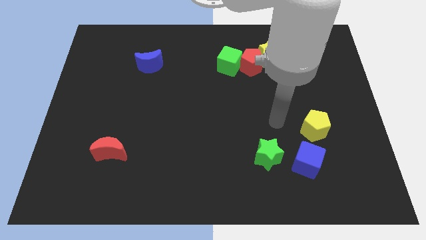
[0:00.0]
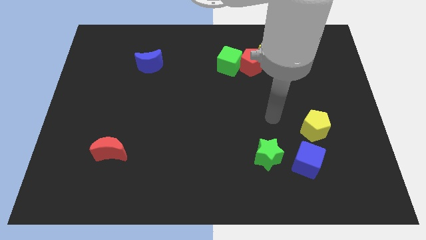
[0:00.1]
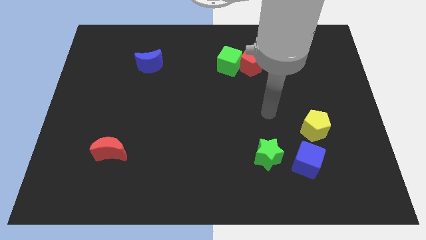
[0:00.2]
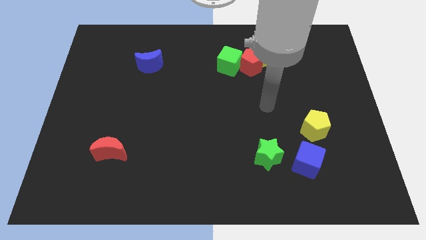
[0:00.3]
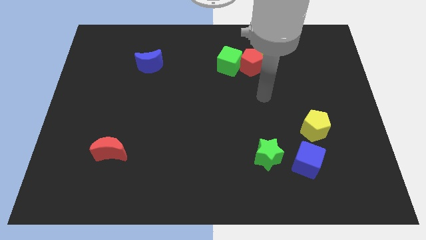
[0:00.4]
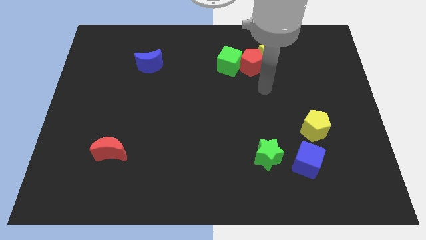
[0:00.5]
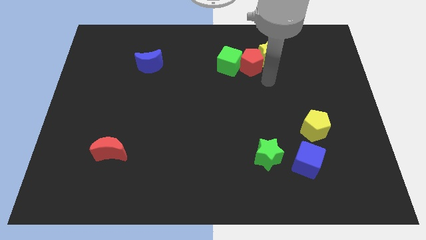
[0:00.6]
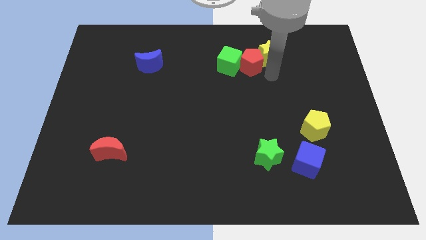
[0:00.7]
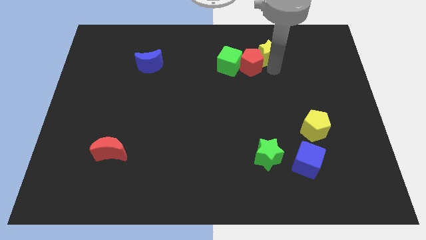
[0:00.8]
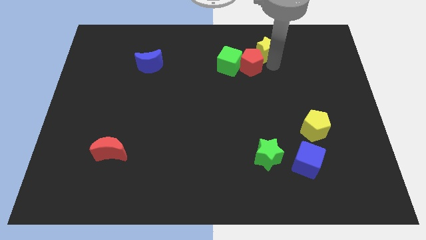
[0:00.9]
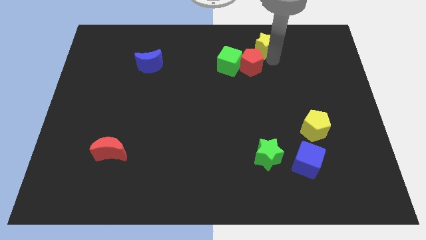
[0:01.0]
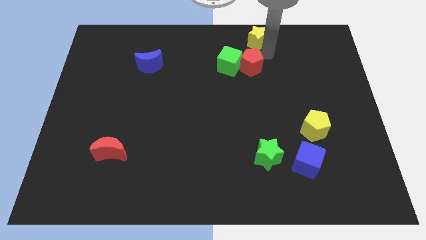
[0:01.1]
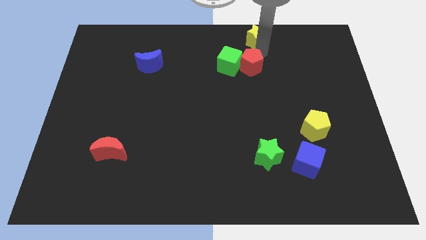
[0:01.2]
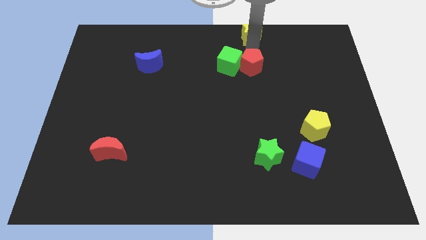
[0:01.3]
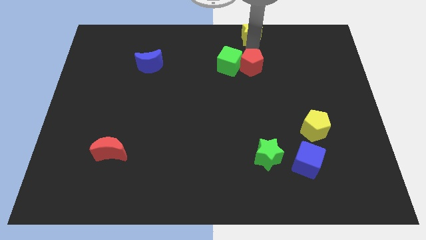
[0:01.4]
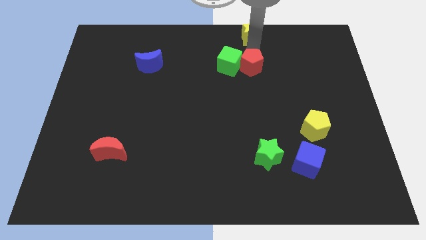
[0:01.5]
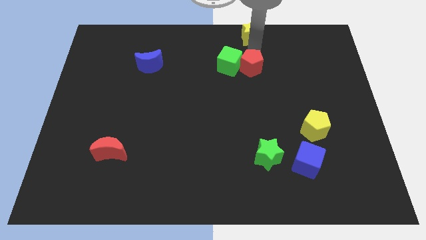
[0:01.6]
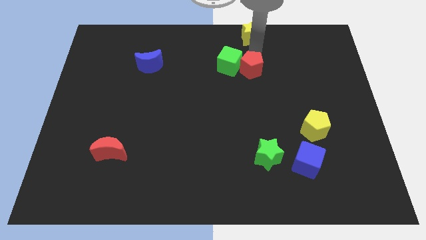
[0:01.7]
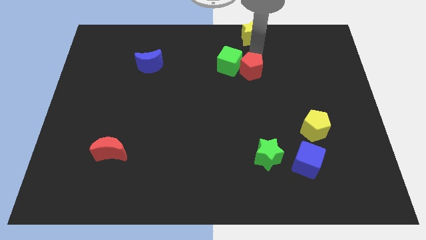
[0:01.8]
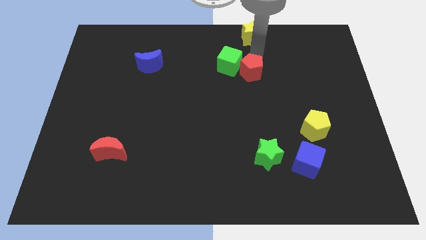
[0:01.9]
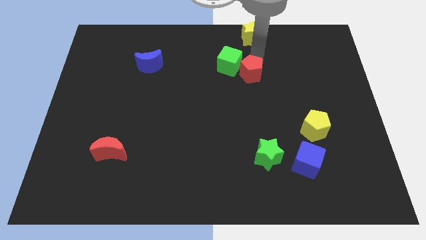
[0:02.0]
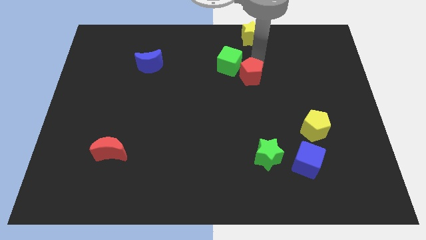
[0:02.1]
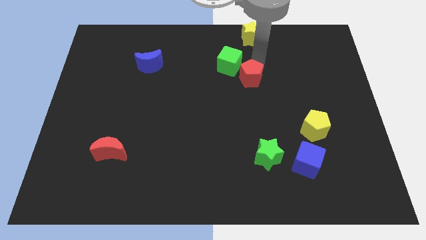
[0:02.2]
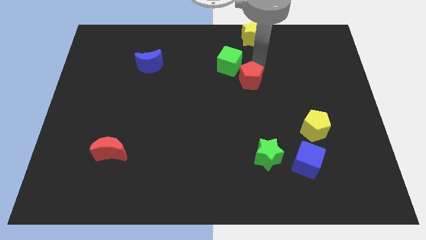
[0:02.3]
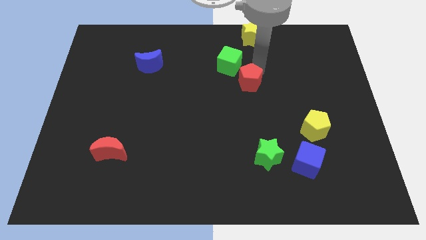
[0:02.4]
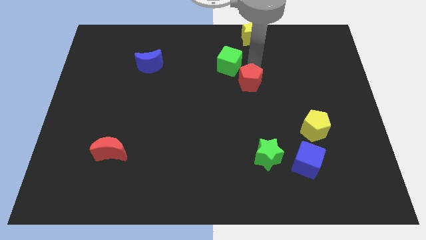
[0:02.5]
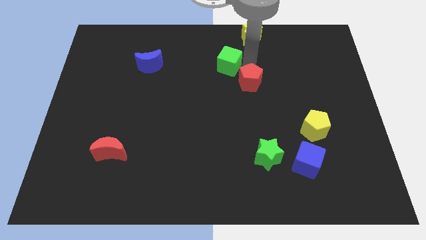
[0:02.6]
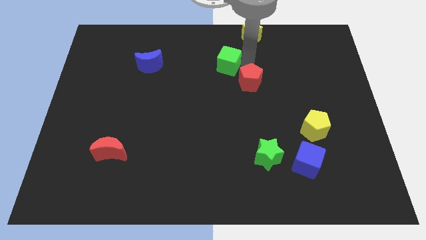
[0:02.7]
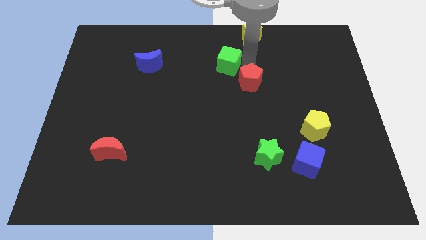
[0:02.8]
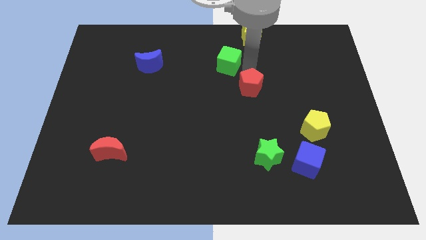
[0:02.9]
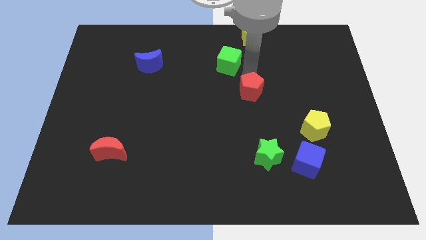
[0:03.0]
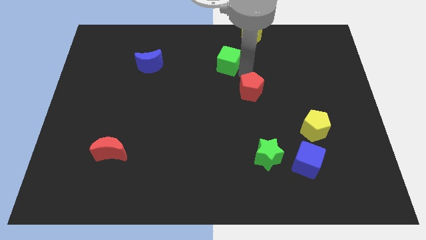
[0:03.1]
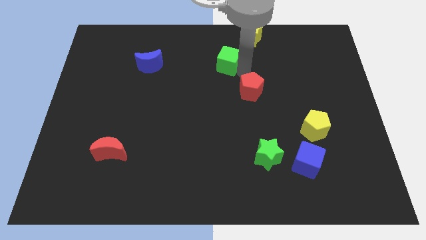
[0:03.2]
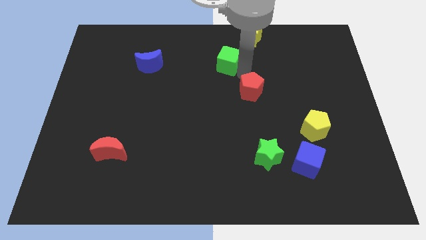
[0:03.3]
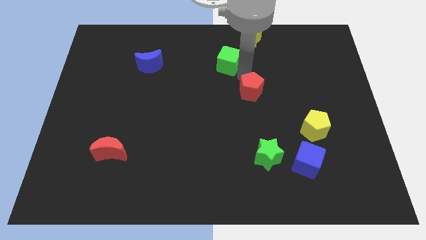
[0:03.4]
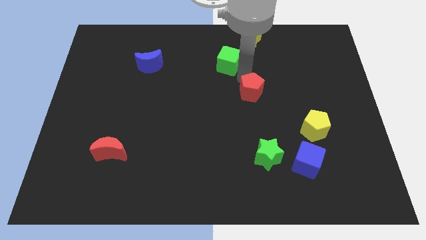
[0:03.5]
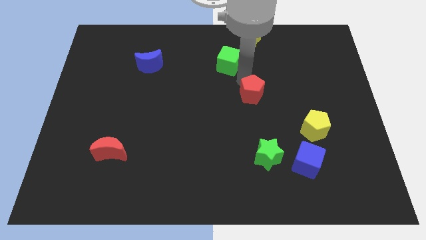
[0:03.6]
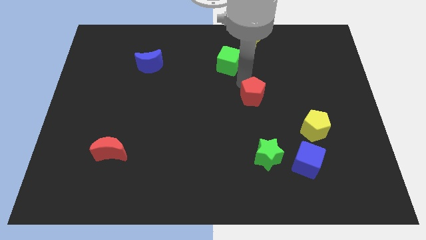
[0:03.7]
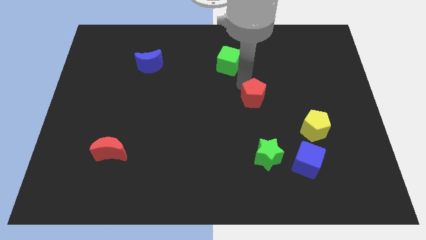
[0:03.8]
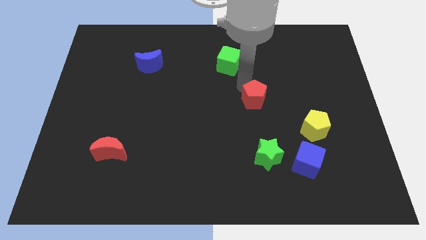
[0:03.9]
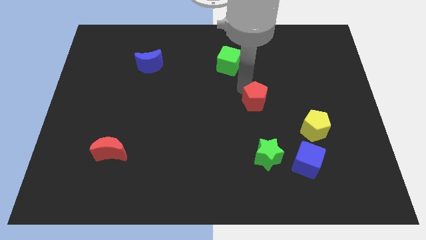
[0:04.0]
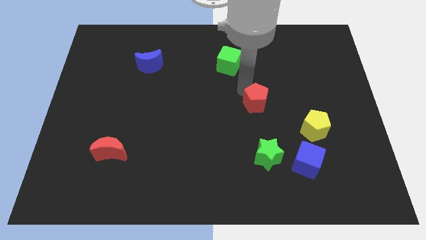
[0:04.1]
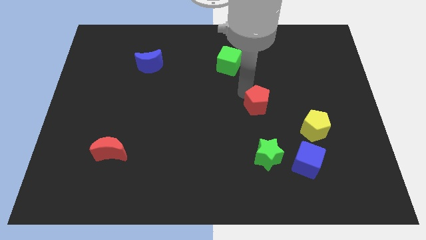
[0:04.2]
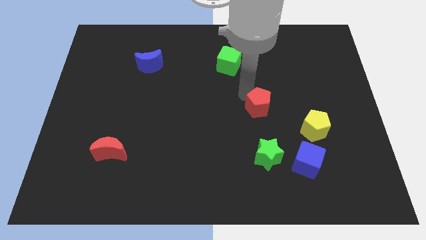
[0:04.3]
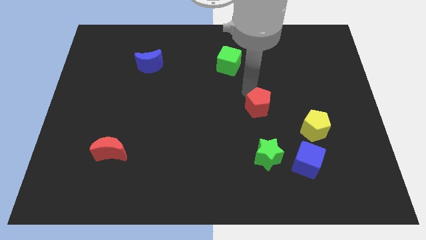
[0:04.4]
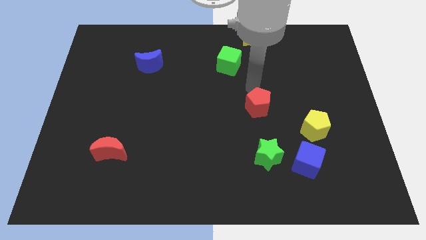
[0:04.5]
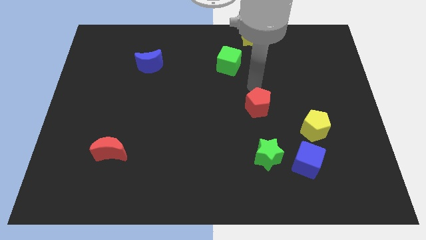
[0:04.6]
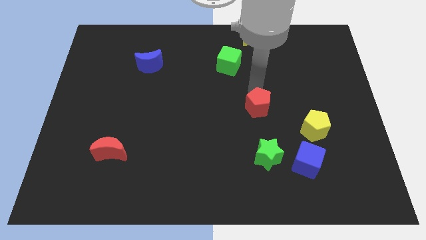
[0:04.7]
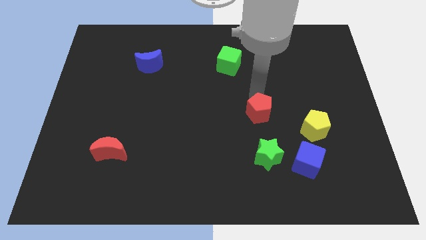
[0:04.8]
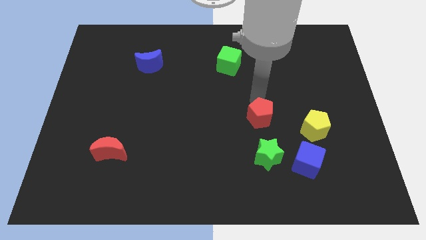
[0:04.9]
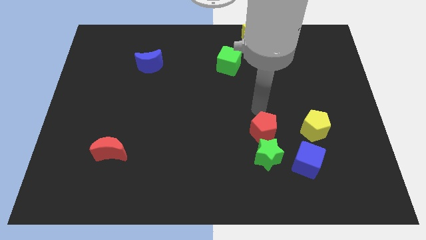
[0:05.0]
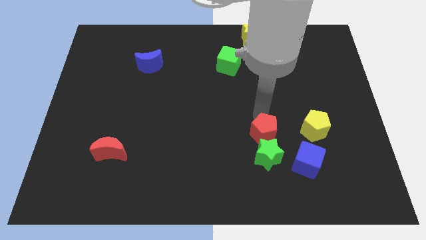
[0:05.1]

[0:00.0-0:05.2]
push the red pentagon towards the green star

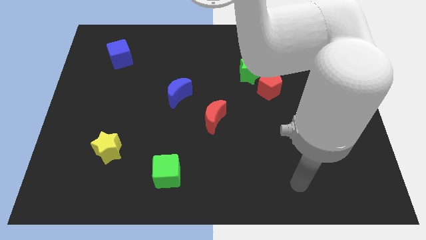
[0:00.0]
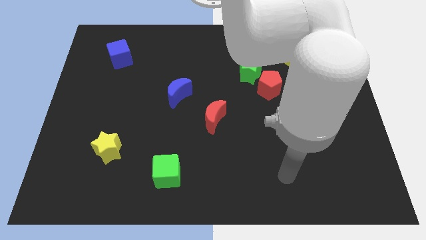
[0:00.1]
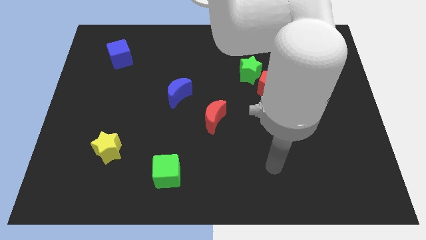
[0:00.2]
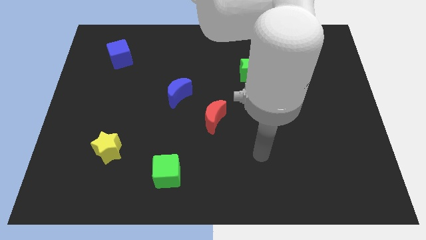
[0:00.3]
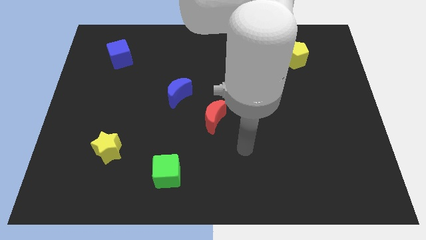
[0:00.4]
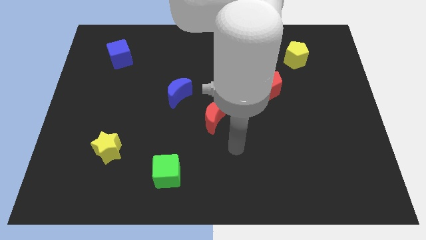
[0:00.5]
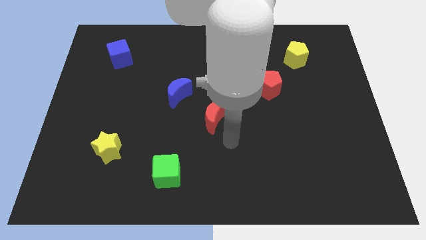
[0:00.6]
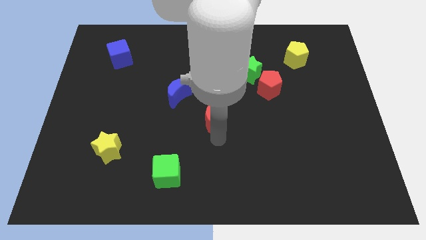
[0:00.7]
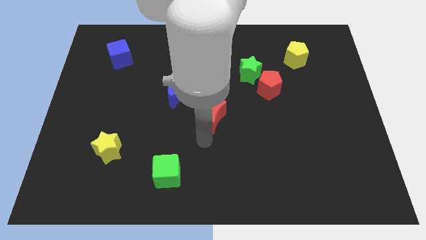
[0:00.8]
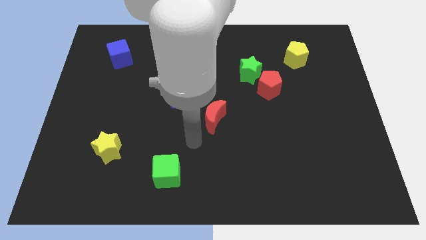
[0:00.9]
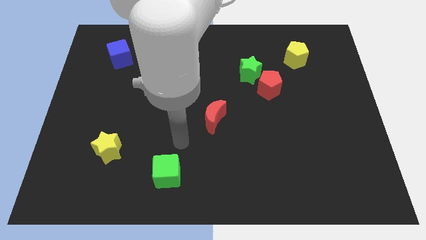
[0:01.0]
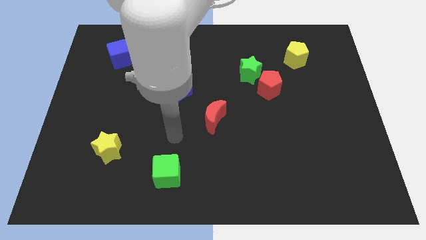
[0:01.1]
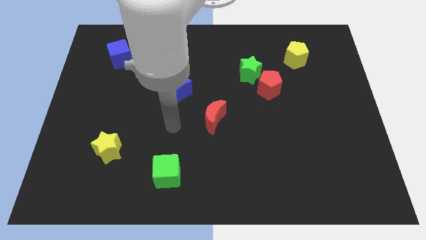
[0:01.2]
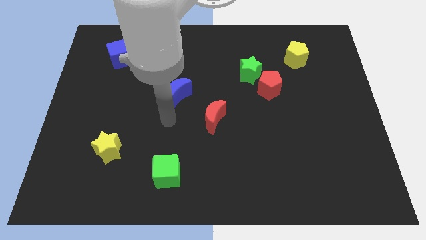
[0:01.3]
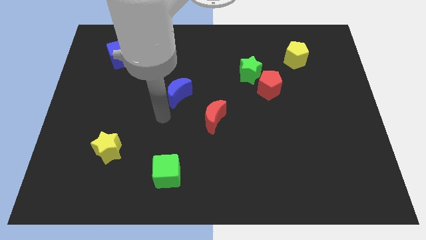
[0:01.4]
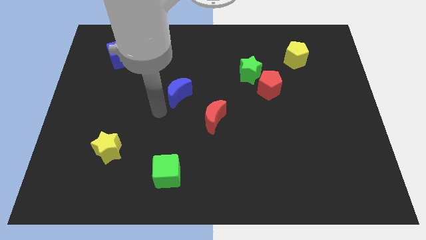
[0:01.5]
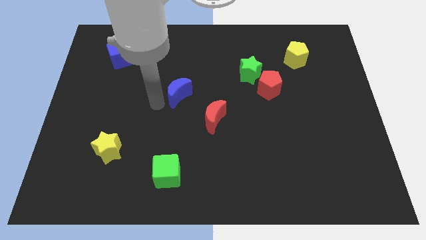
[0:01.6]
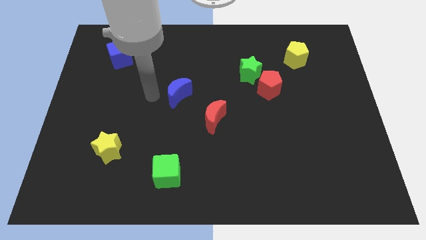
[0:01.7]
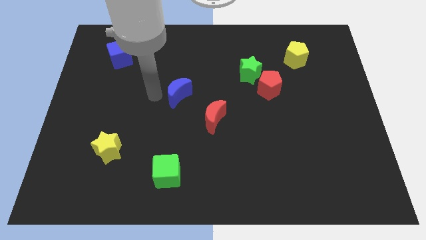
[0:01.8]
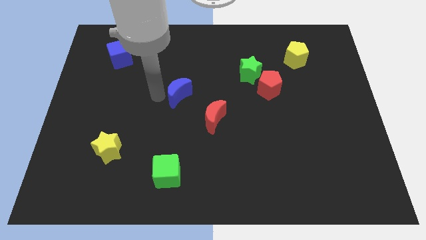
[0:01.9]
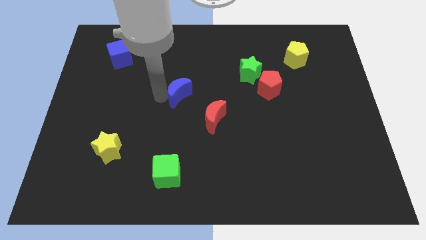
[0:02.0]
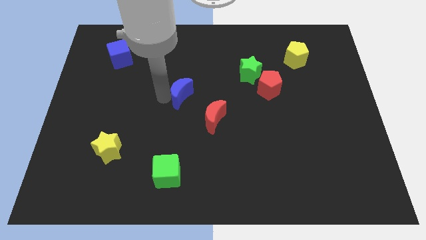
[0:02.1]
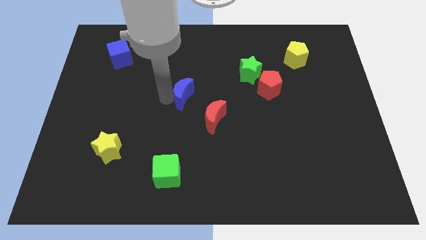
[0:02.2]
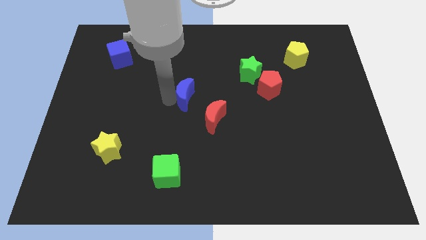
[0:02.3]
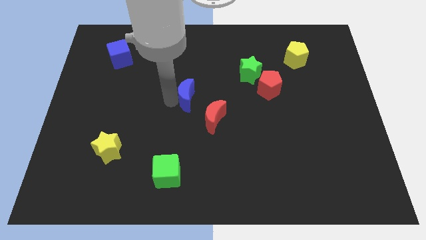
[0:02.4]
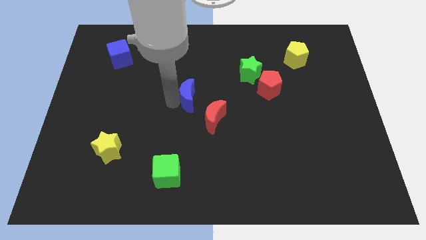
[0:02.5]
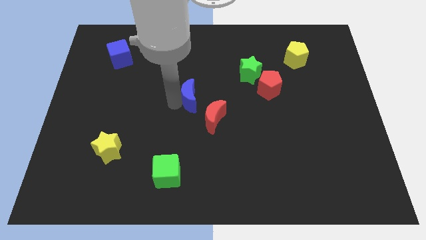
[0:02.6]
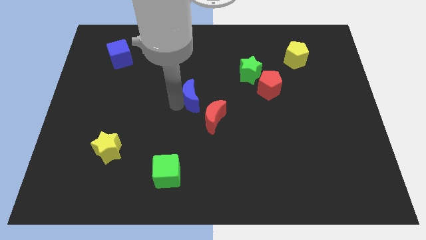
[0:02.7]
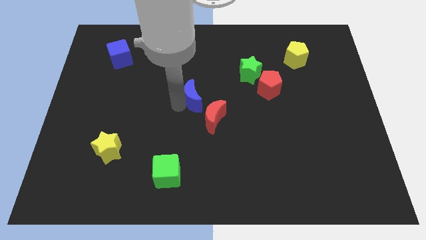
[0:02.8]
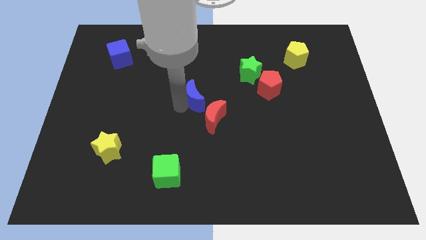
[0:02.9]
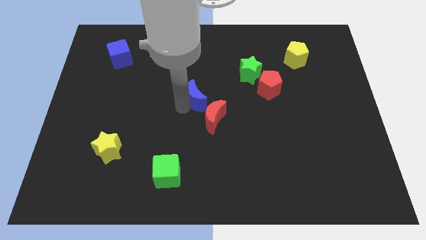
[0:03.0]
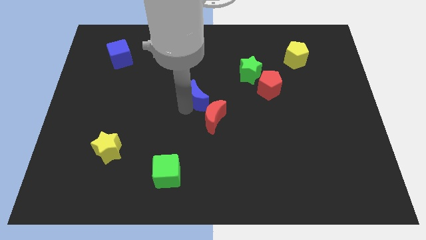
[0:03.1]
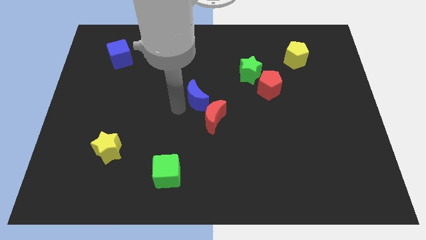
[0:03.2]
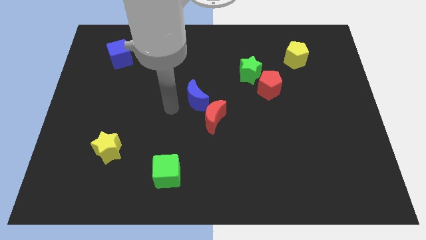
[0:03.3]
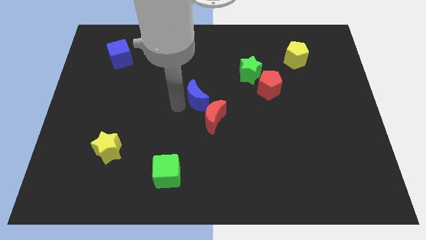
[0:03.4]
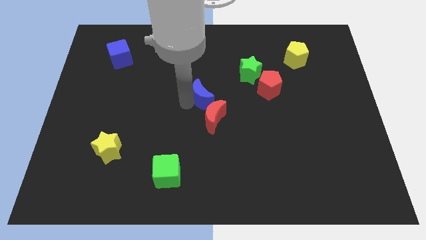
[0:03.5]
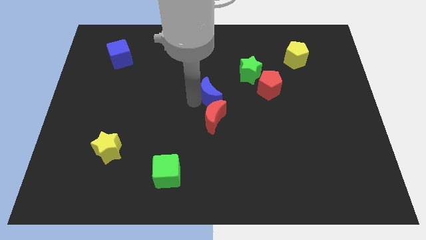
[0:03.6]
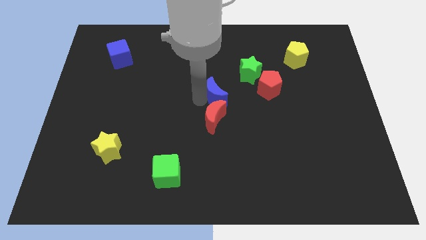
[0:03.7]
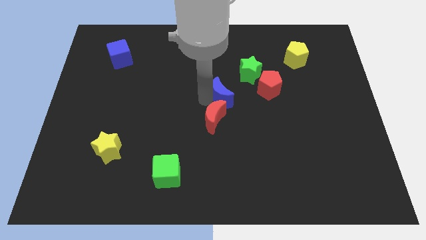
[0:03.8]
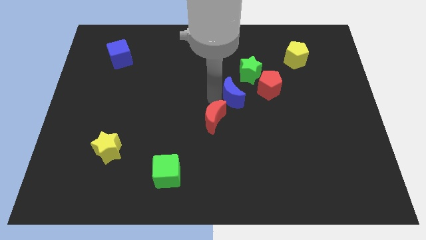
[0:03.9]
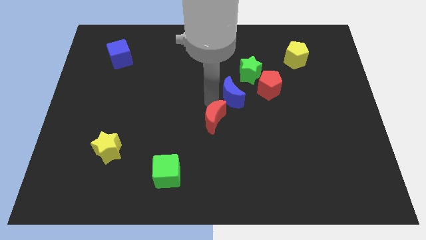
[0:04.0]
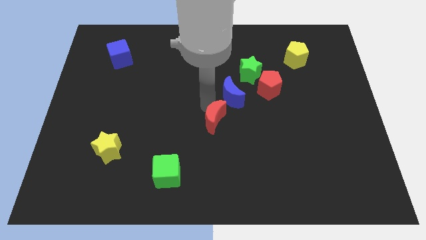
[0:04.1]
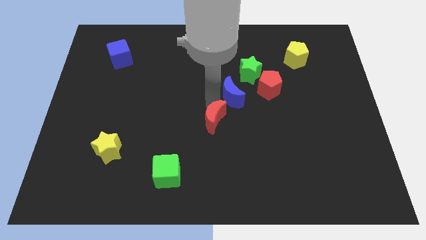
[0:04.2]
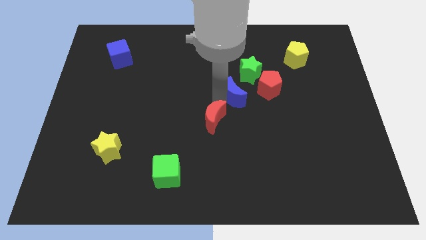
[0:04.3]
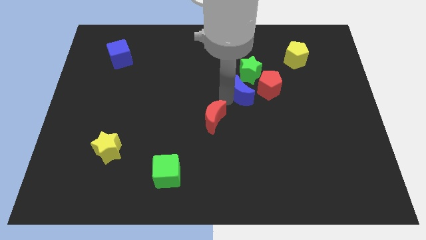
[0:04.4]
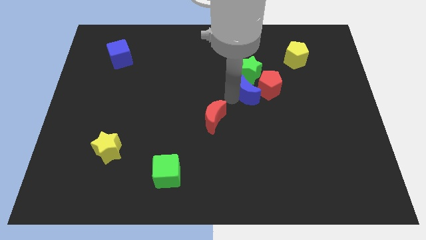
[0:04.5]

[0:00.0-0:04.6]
slide the blue moon towards the red pentagon
